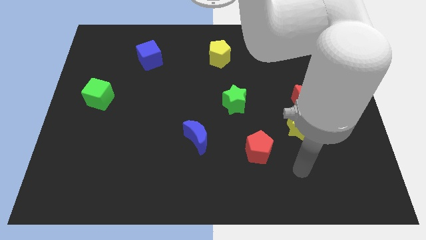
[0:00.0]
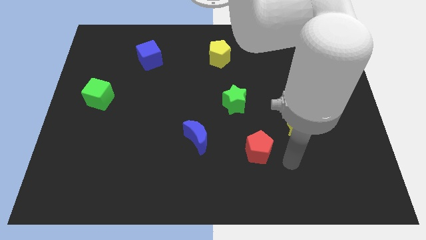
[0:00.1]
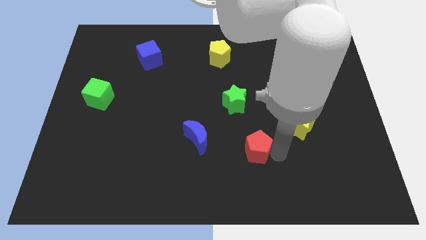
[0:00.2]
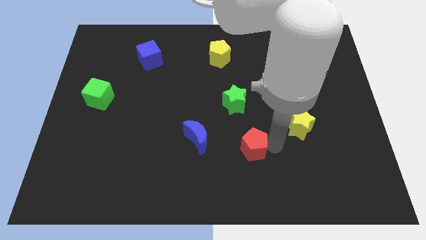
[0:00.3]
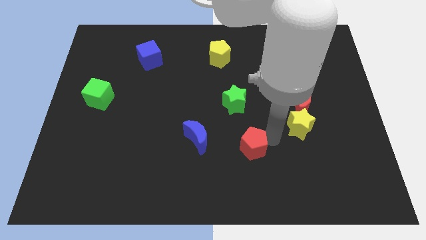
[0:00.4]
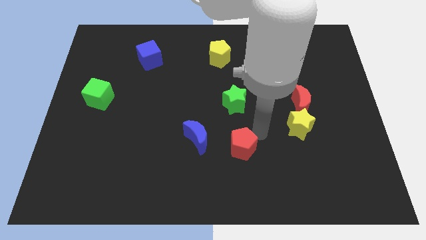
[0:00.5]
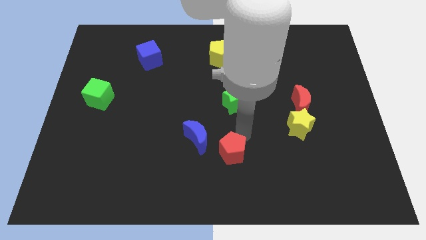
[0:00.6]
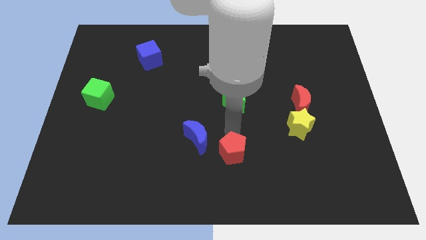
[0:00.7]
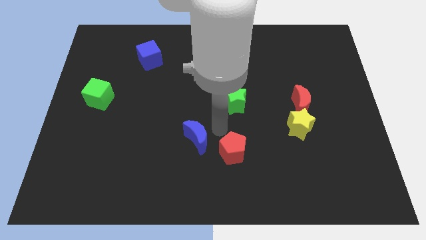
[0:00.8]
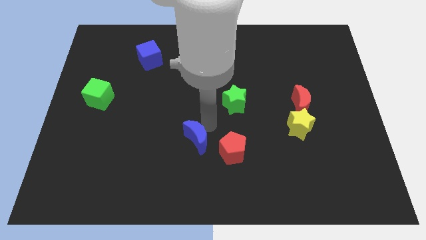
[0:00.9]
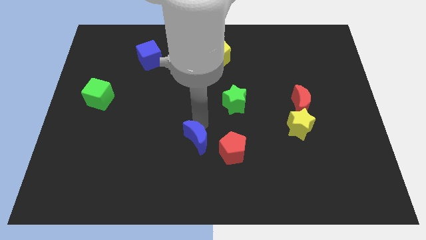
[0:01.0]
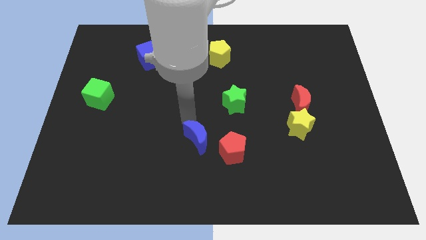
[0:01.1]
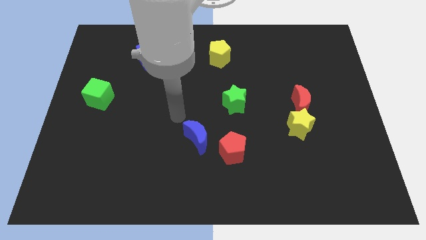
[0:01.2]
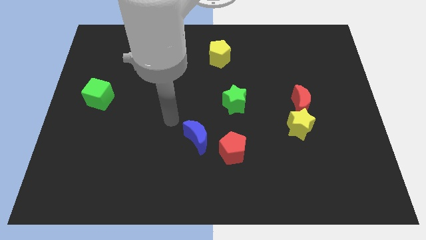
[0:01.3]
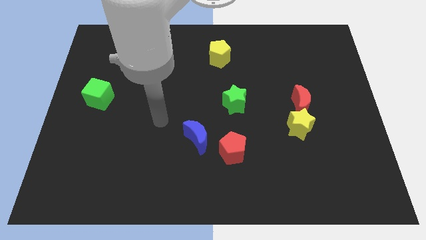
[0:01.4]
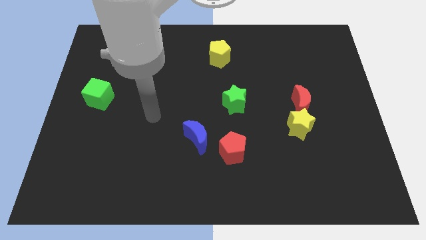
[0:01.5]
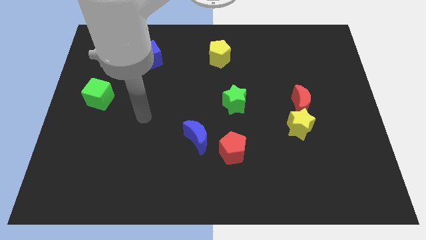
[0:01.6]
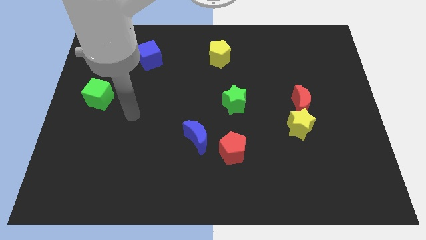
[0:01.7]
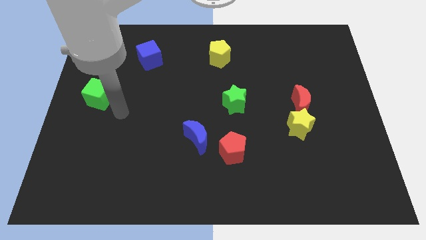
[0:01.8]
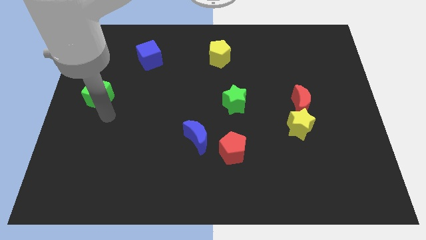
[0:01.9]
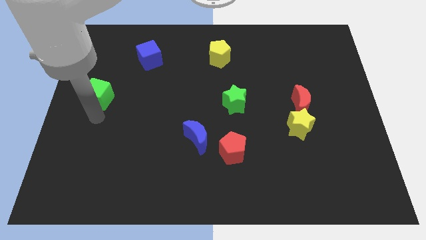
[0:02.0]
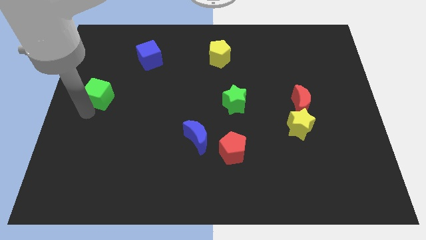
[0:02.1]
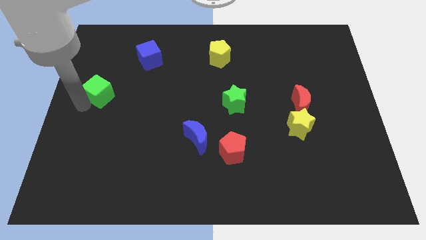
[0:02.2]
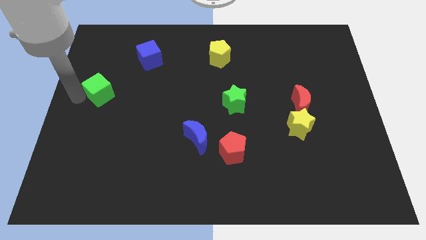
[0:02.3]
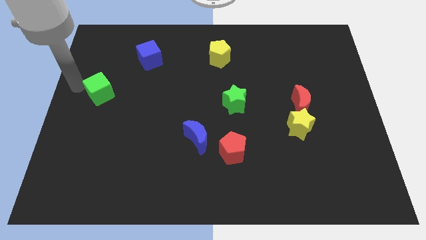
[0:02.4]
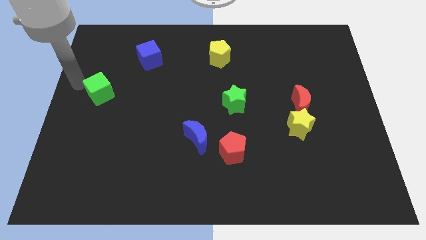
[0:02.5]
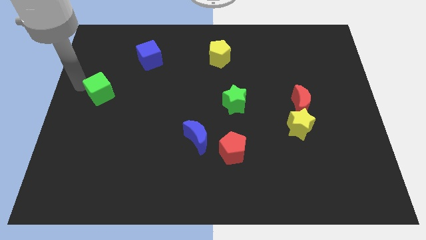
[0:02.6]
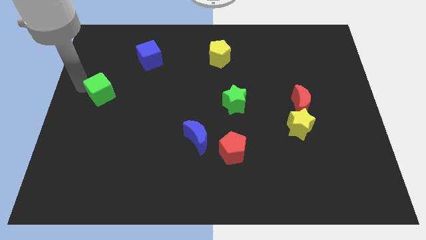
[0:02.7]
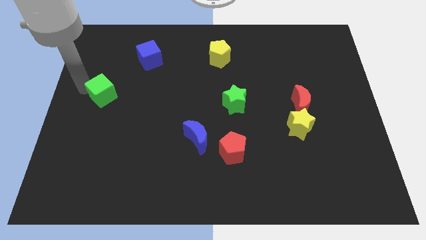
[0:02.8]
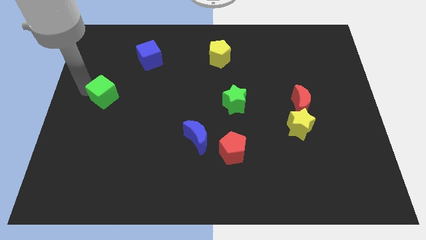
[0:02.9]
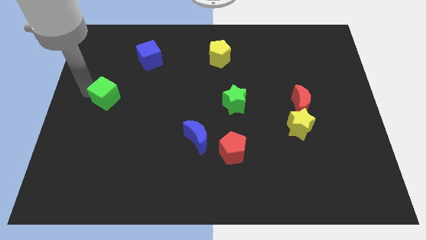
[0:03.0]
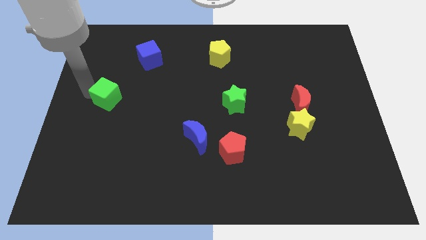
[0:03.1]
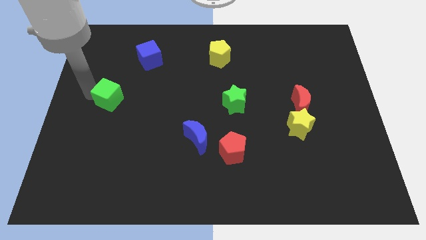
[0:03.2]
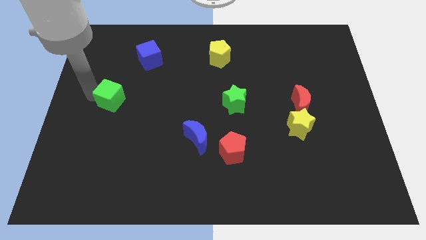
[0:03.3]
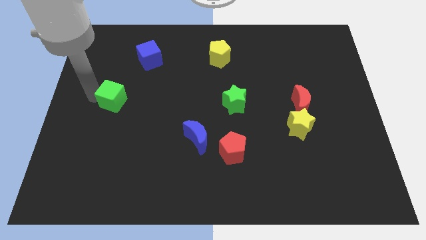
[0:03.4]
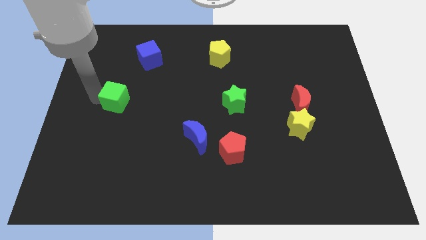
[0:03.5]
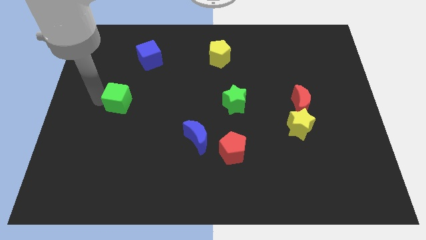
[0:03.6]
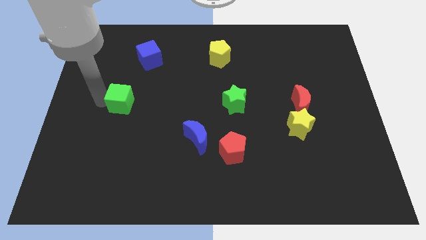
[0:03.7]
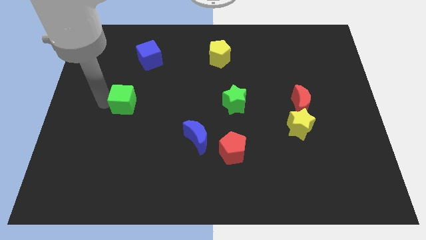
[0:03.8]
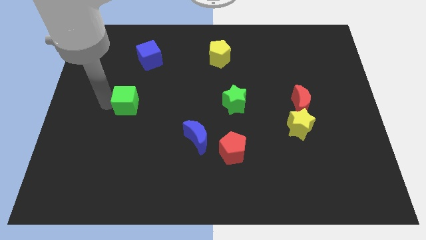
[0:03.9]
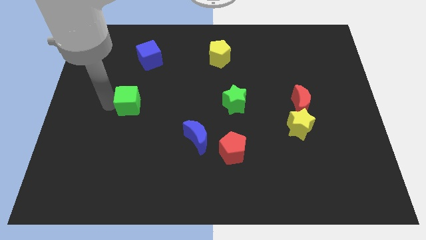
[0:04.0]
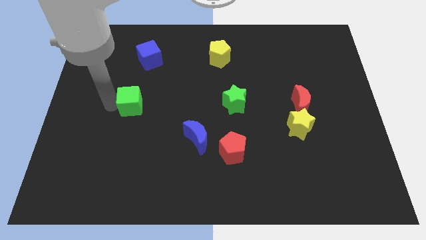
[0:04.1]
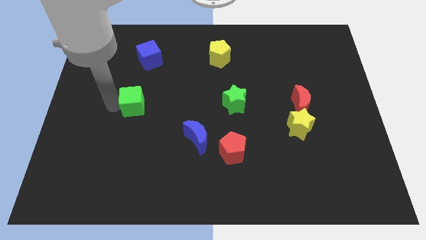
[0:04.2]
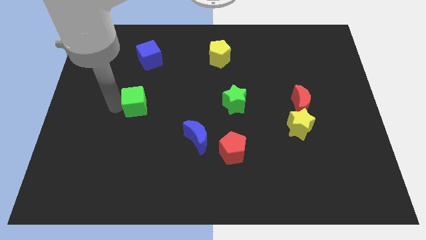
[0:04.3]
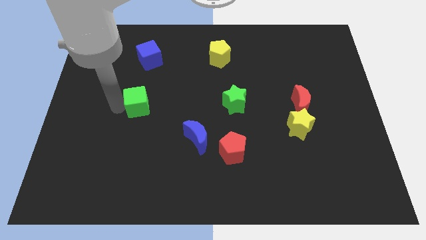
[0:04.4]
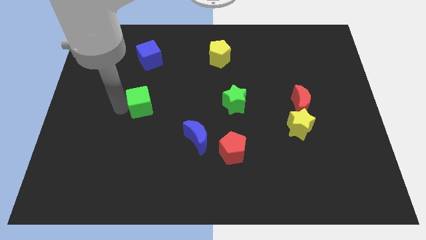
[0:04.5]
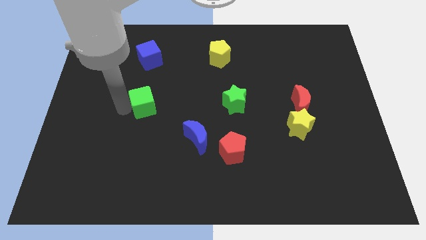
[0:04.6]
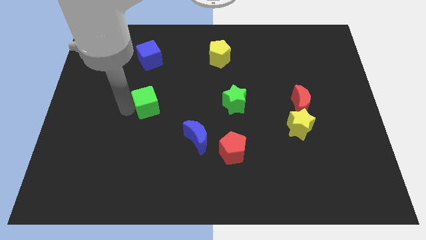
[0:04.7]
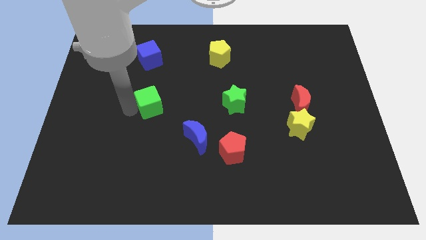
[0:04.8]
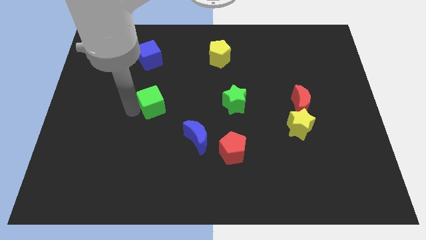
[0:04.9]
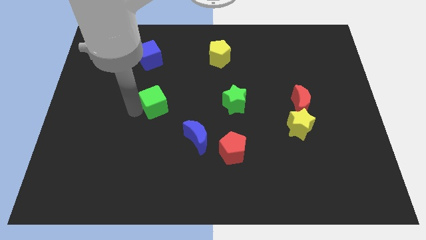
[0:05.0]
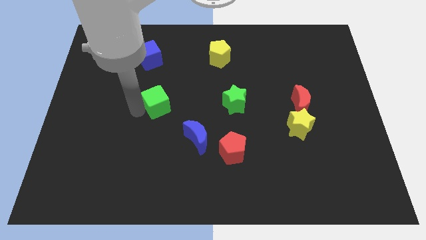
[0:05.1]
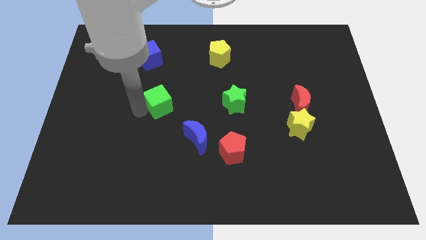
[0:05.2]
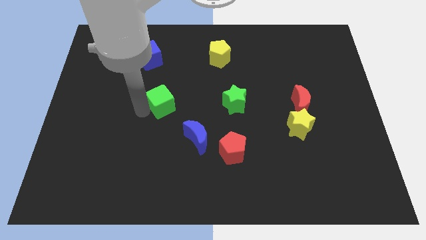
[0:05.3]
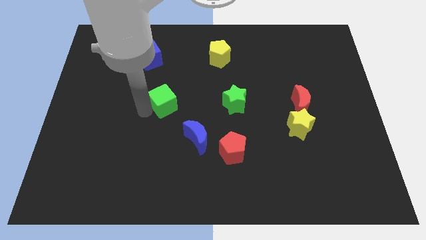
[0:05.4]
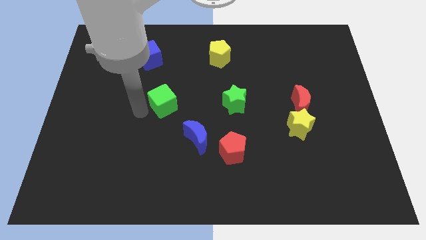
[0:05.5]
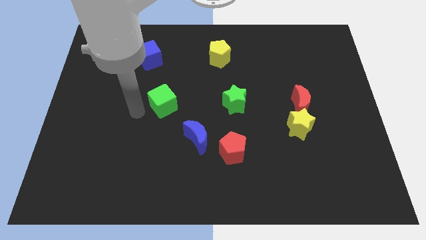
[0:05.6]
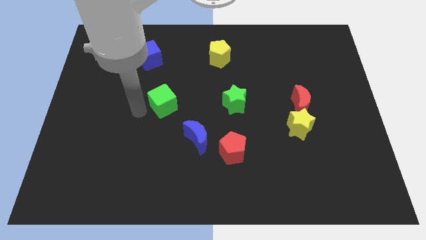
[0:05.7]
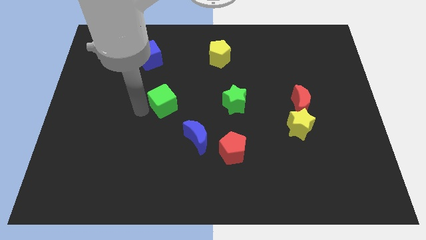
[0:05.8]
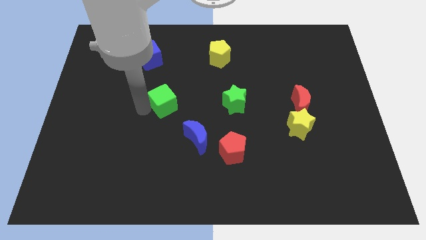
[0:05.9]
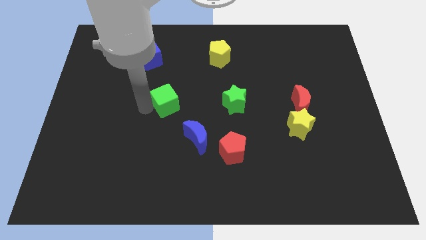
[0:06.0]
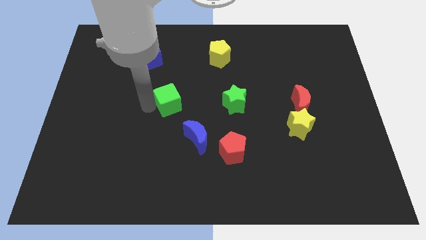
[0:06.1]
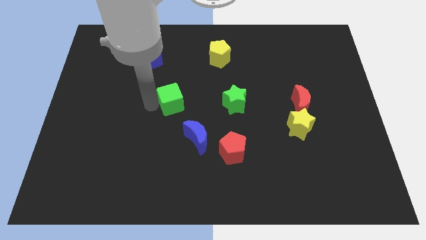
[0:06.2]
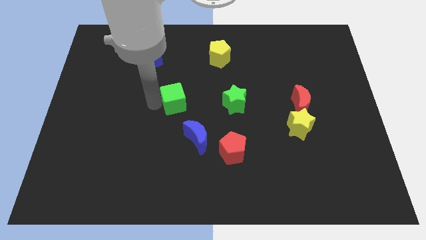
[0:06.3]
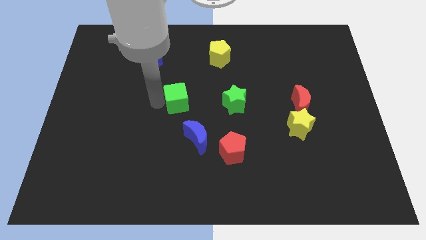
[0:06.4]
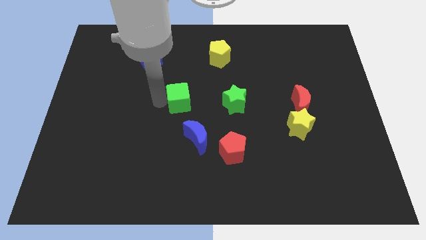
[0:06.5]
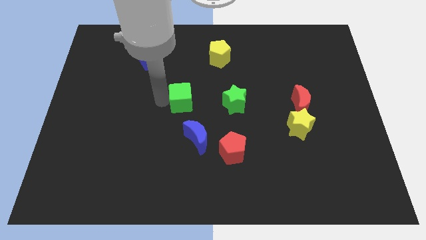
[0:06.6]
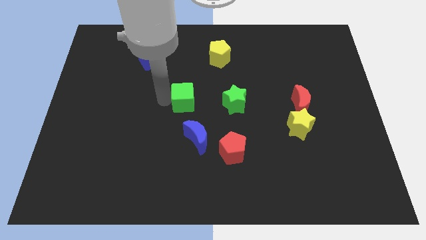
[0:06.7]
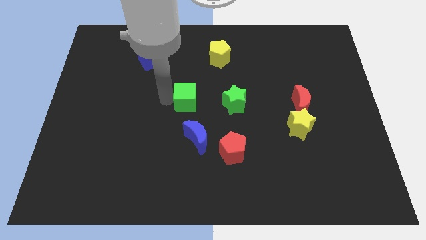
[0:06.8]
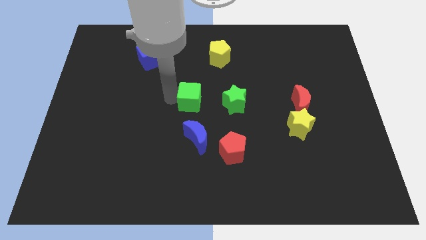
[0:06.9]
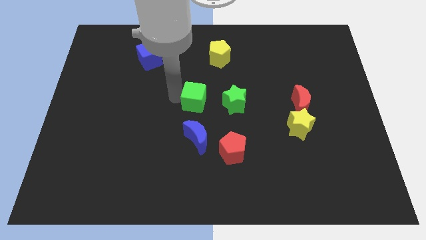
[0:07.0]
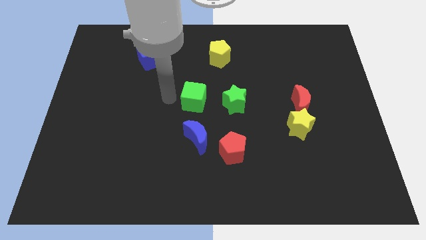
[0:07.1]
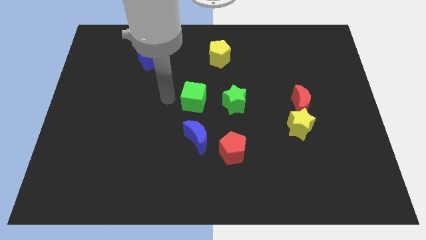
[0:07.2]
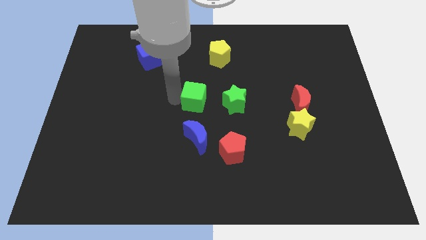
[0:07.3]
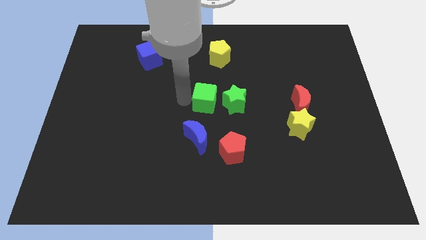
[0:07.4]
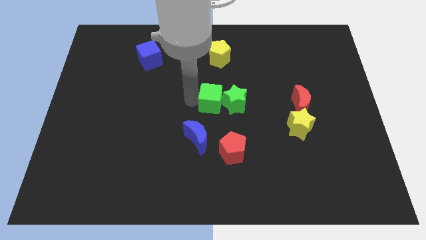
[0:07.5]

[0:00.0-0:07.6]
put the green cube close to the green star
